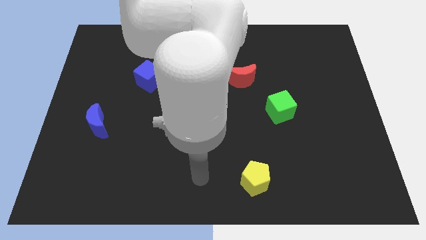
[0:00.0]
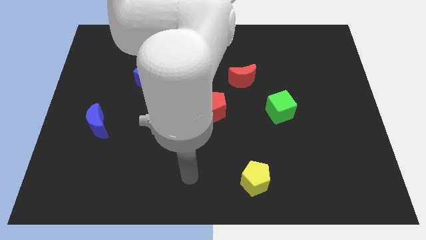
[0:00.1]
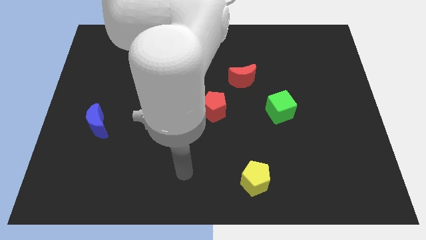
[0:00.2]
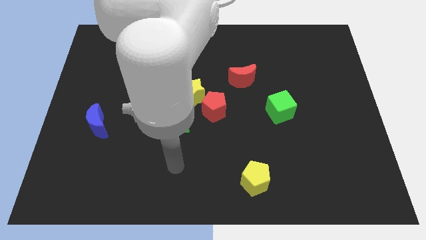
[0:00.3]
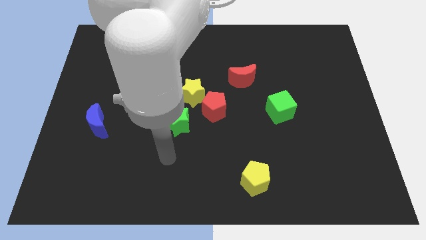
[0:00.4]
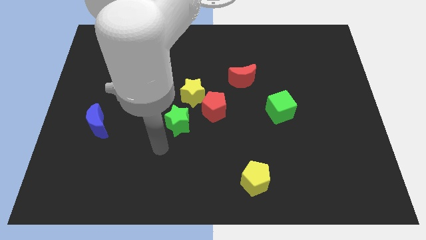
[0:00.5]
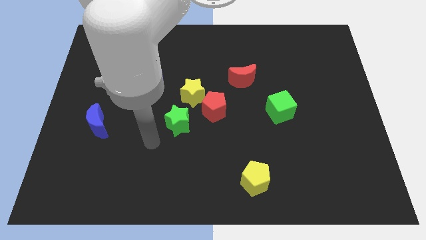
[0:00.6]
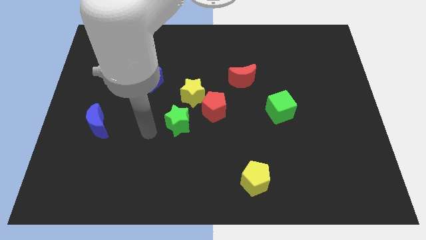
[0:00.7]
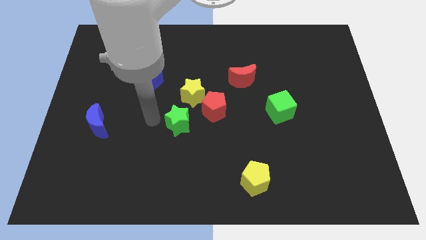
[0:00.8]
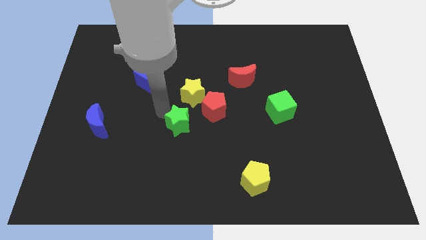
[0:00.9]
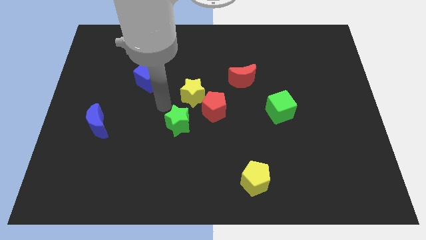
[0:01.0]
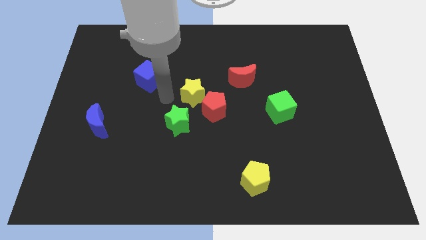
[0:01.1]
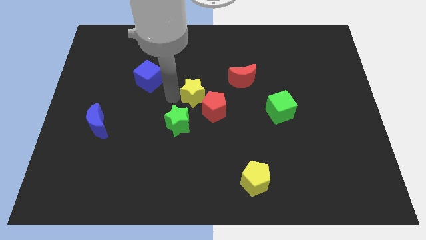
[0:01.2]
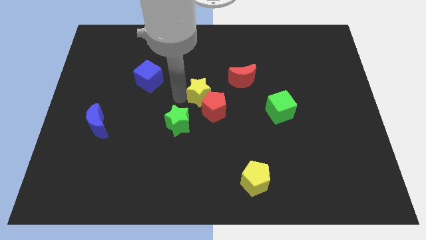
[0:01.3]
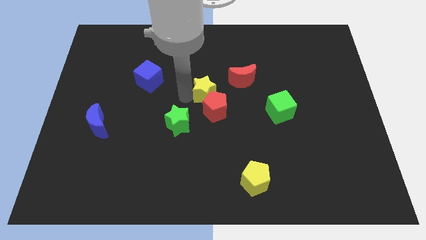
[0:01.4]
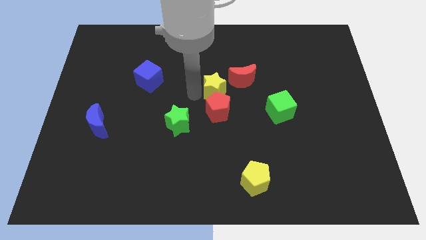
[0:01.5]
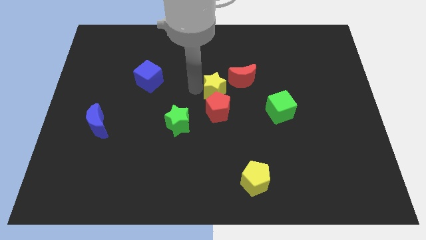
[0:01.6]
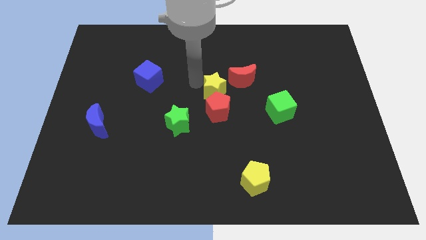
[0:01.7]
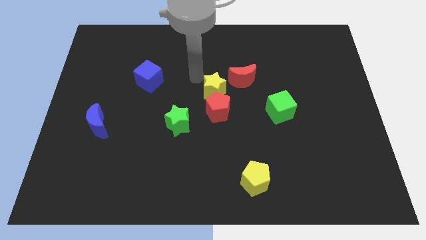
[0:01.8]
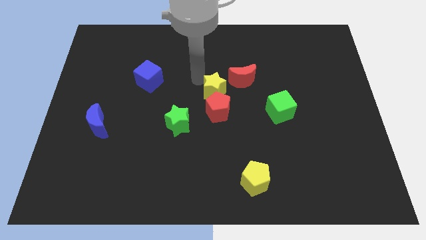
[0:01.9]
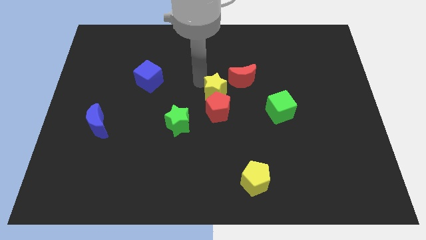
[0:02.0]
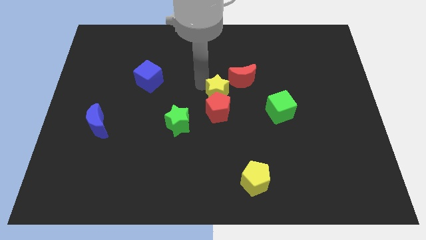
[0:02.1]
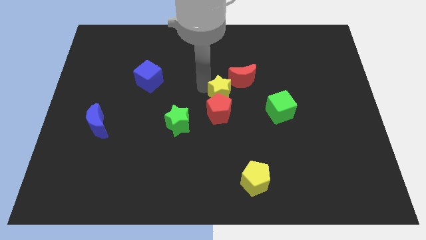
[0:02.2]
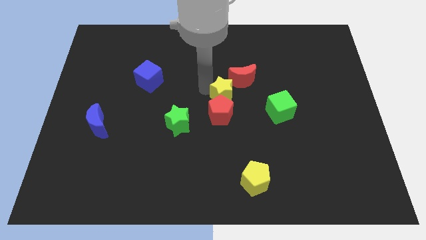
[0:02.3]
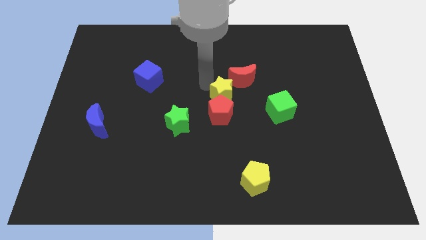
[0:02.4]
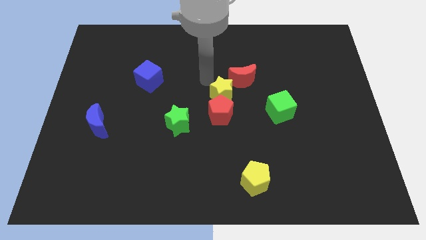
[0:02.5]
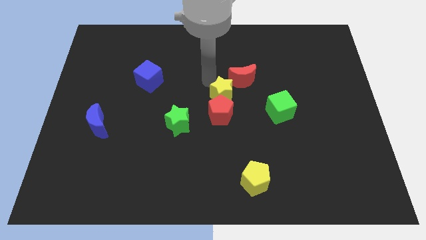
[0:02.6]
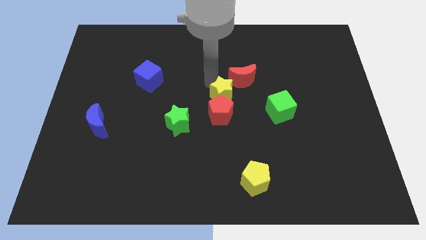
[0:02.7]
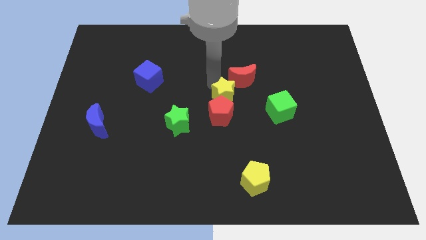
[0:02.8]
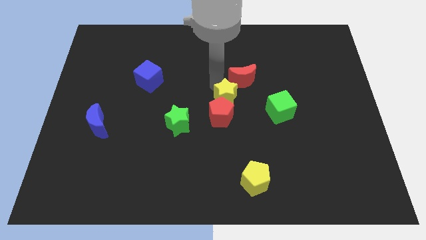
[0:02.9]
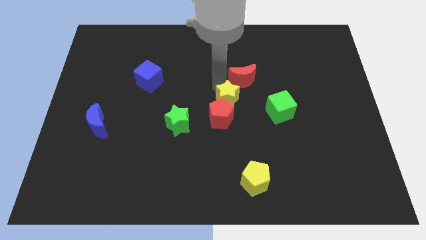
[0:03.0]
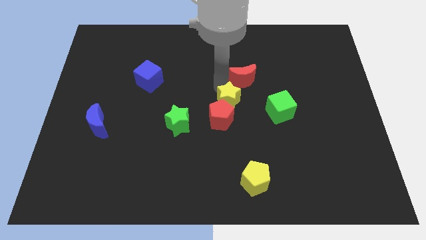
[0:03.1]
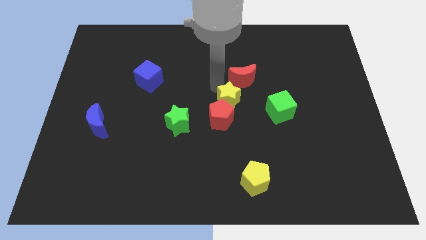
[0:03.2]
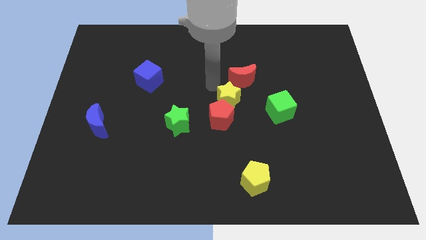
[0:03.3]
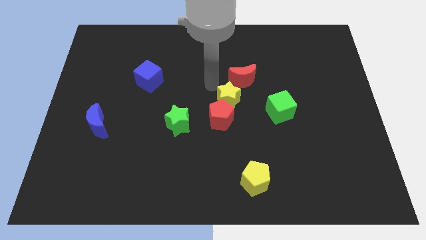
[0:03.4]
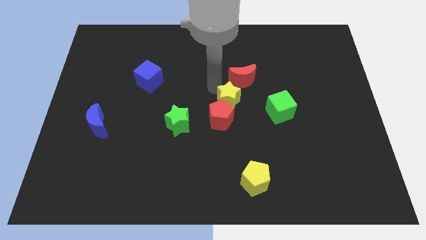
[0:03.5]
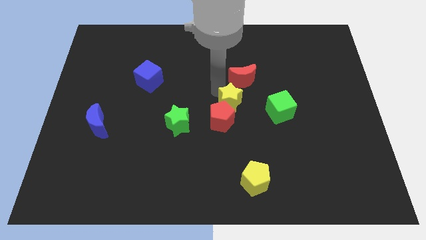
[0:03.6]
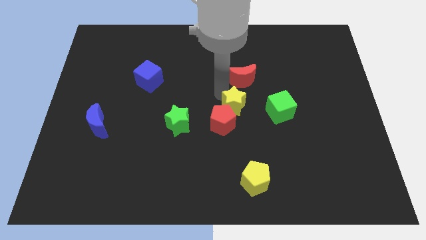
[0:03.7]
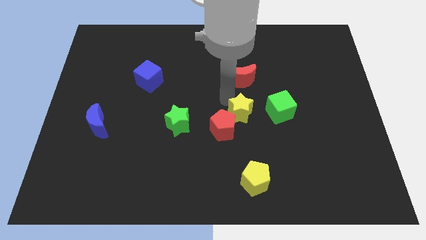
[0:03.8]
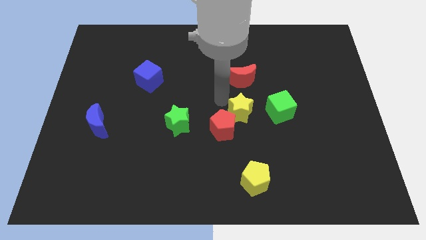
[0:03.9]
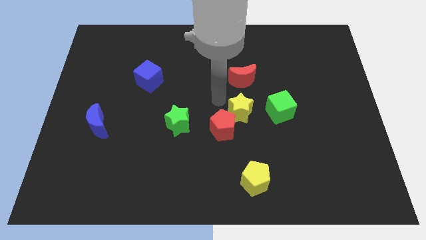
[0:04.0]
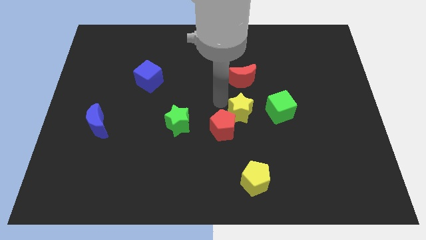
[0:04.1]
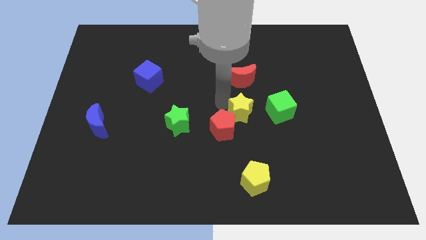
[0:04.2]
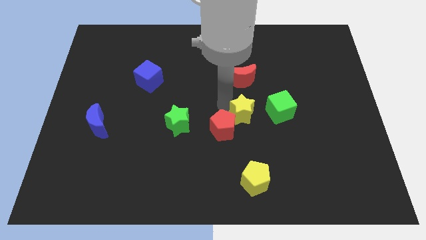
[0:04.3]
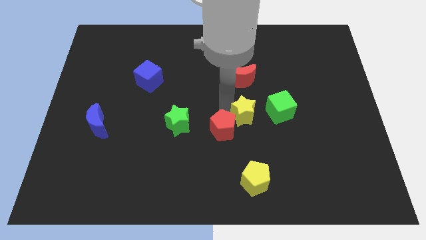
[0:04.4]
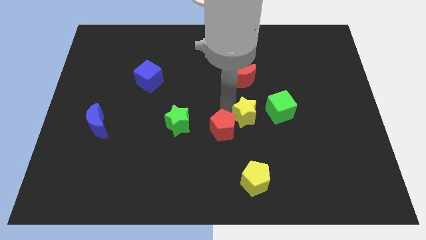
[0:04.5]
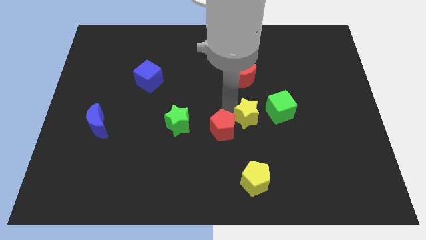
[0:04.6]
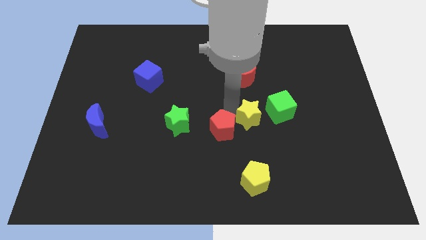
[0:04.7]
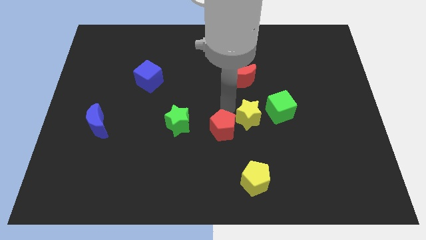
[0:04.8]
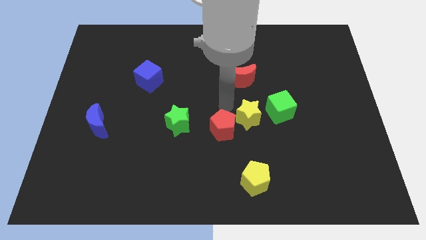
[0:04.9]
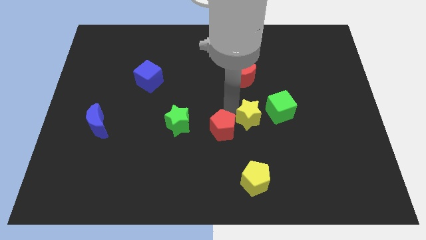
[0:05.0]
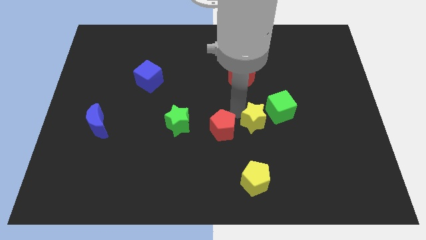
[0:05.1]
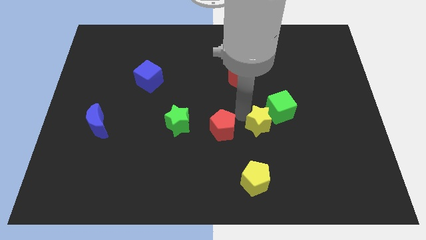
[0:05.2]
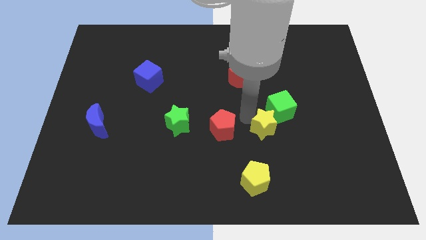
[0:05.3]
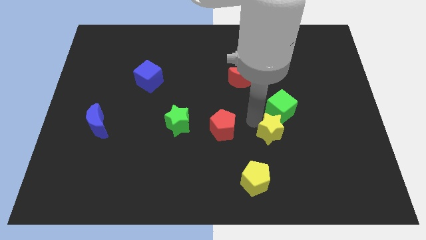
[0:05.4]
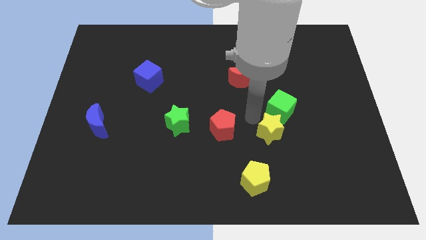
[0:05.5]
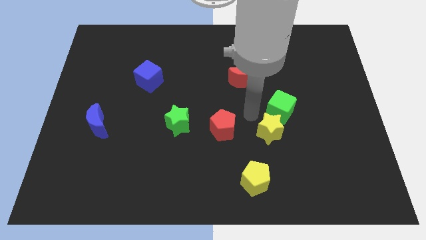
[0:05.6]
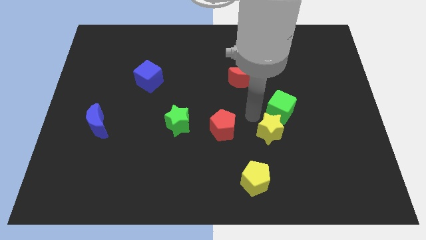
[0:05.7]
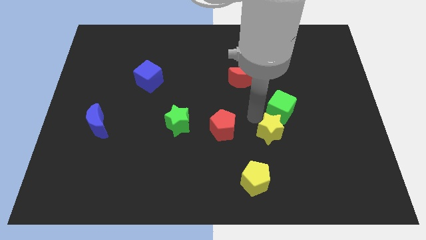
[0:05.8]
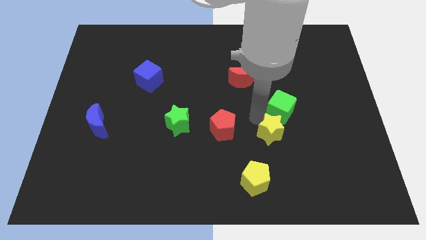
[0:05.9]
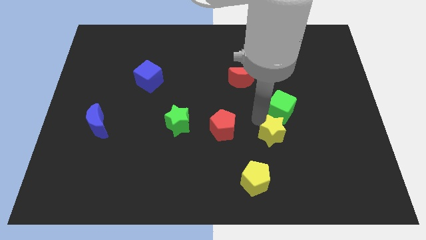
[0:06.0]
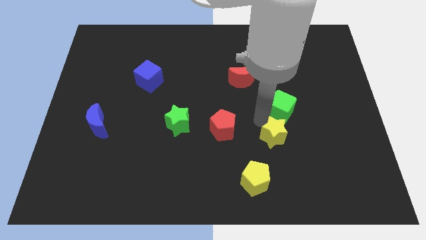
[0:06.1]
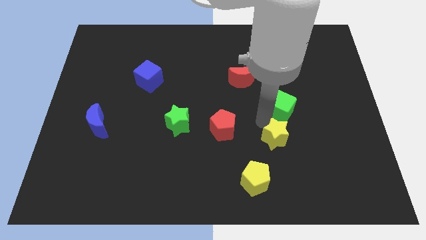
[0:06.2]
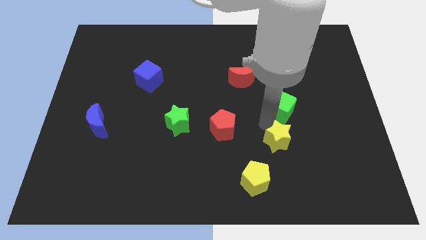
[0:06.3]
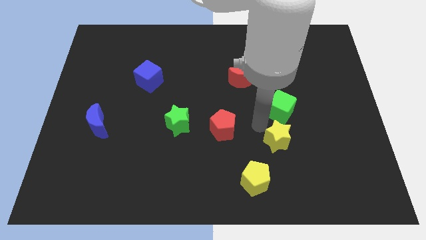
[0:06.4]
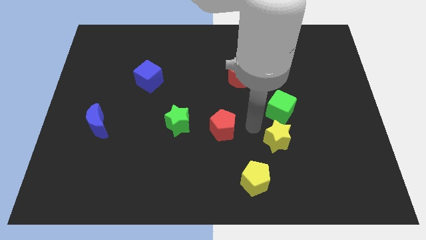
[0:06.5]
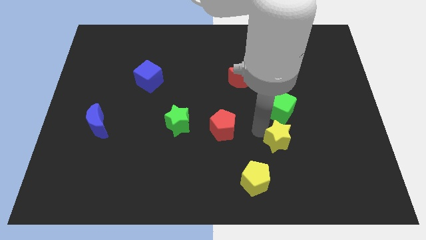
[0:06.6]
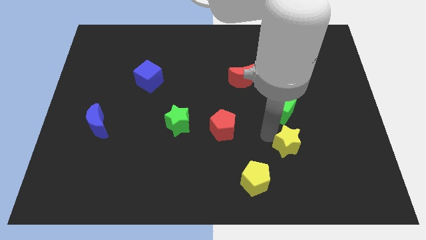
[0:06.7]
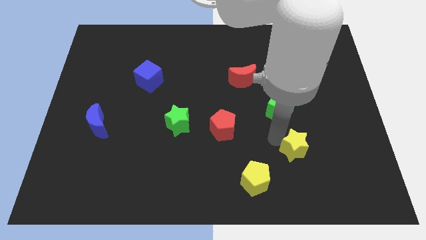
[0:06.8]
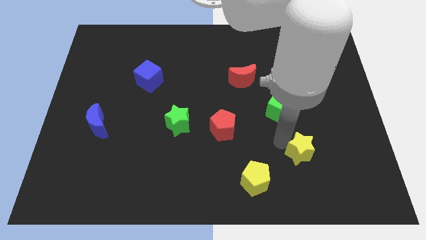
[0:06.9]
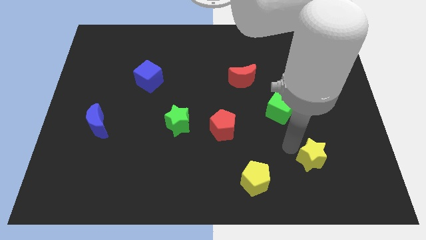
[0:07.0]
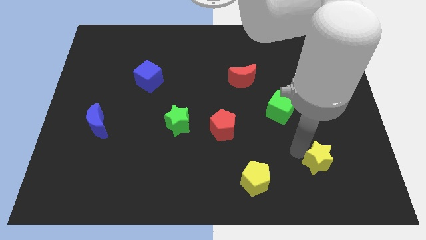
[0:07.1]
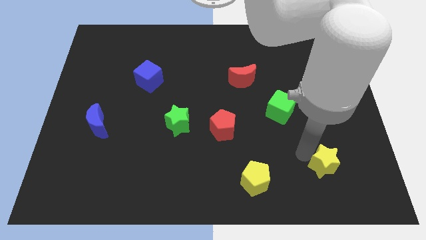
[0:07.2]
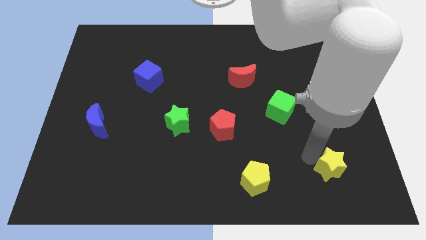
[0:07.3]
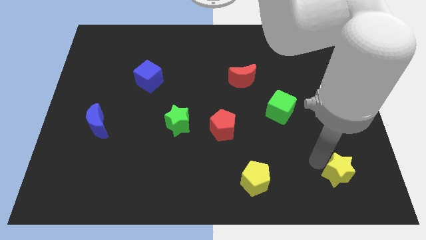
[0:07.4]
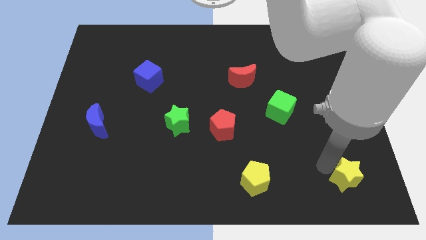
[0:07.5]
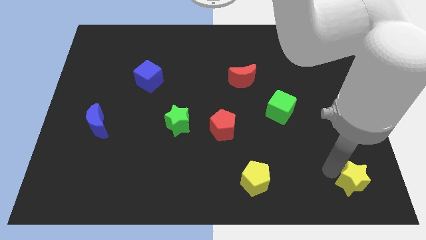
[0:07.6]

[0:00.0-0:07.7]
move the yellow star to the bottom right corner
